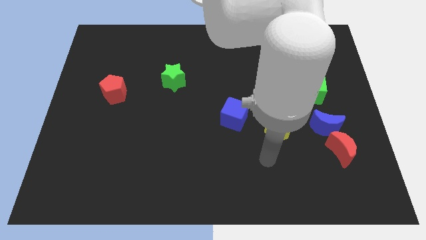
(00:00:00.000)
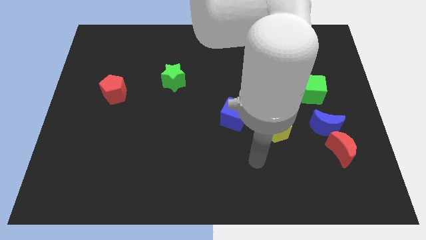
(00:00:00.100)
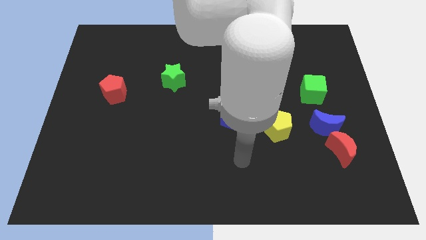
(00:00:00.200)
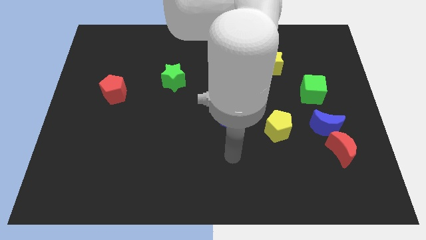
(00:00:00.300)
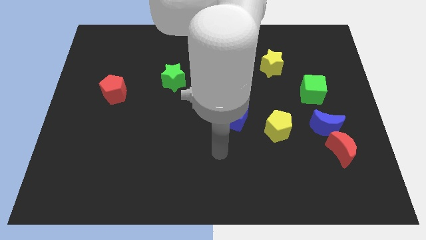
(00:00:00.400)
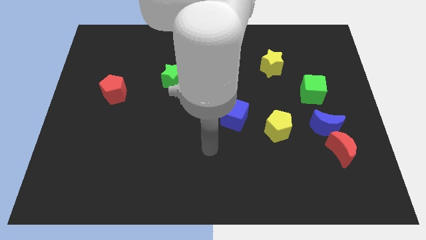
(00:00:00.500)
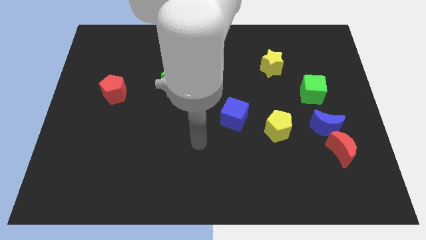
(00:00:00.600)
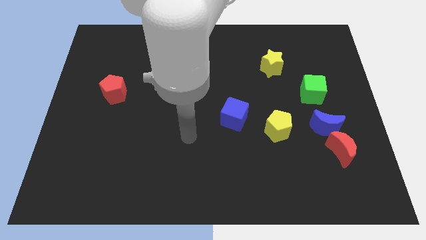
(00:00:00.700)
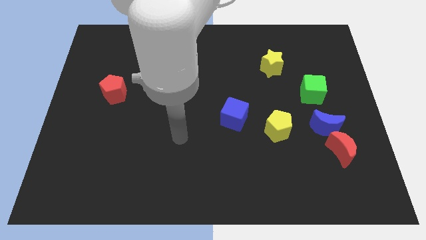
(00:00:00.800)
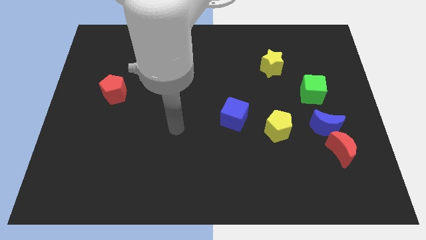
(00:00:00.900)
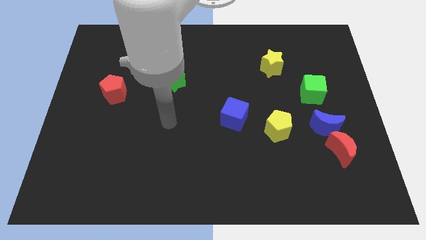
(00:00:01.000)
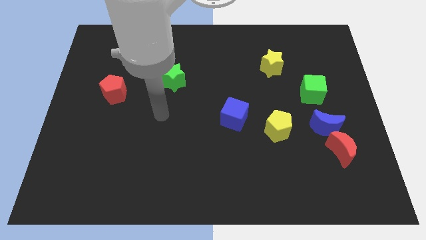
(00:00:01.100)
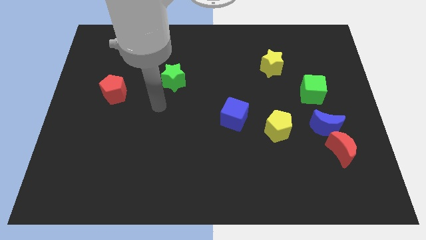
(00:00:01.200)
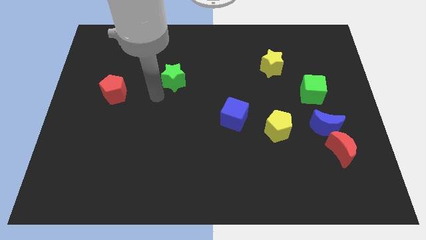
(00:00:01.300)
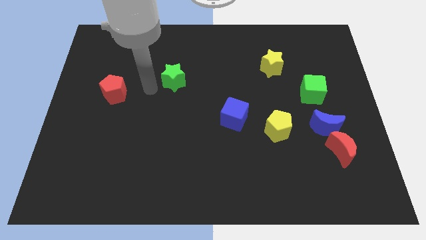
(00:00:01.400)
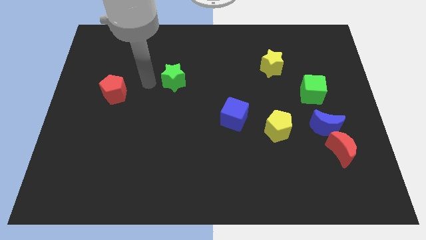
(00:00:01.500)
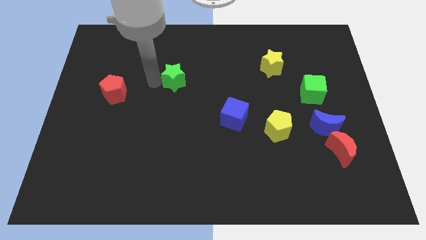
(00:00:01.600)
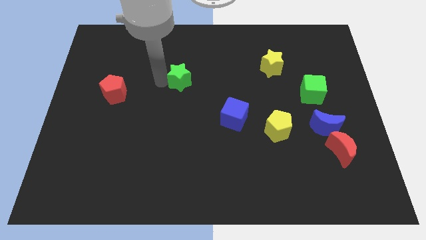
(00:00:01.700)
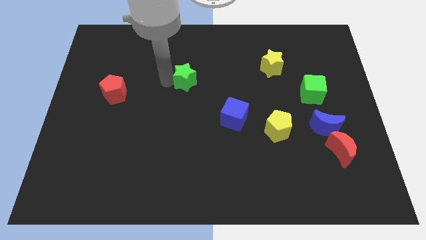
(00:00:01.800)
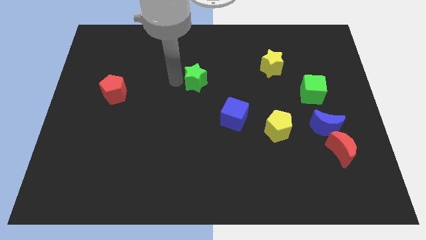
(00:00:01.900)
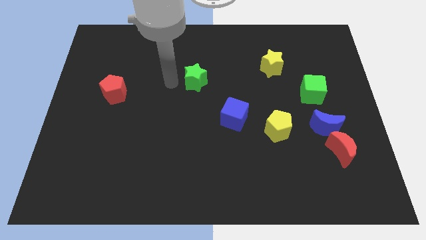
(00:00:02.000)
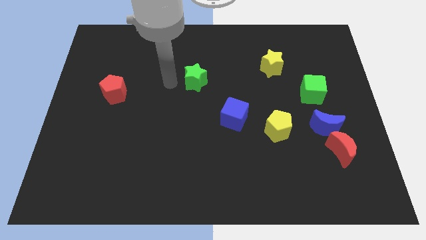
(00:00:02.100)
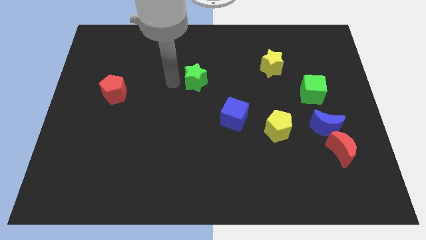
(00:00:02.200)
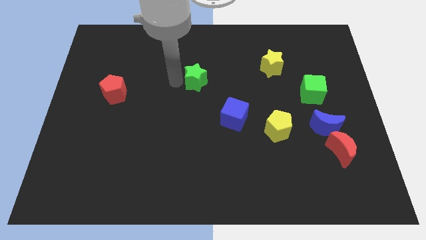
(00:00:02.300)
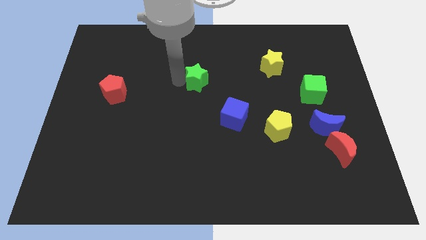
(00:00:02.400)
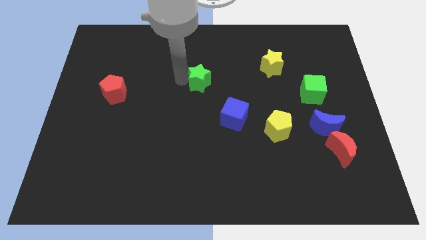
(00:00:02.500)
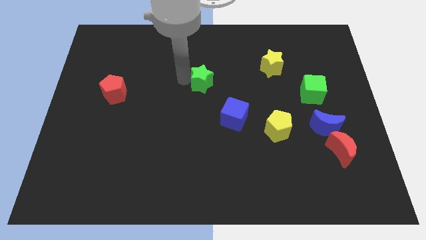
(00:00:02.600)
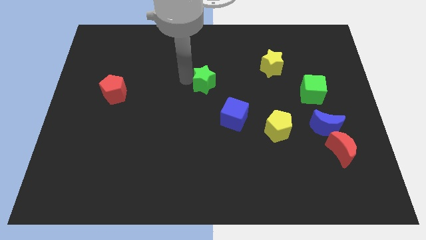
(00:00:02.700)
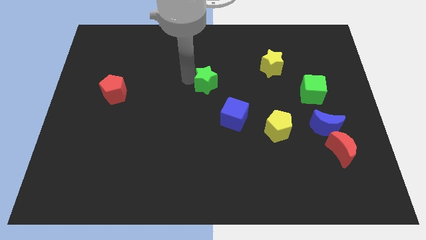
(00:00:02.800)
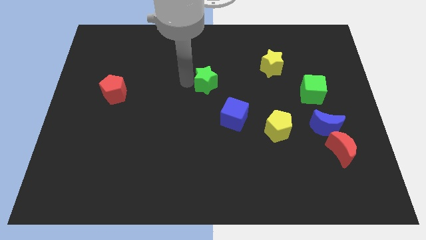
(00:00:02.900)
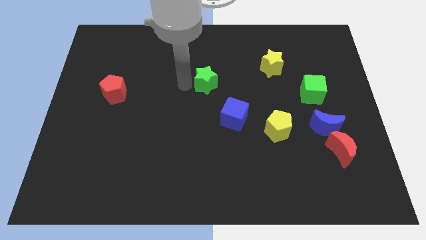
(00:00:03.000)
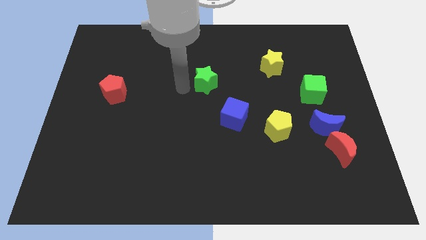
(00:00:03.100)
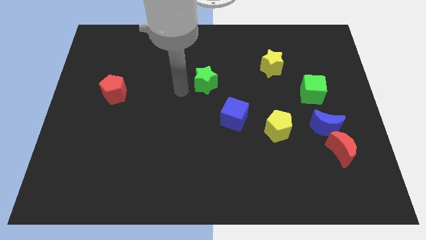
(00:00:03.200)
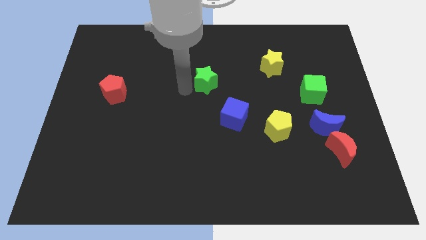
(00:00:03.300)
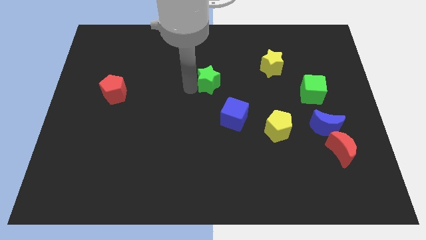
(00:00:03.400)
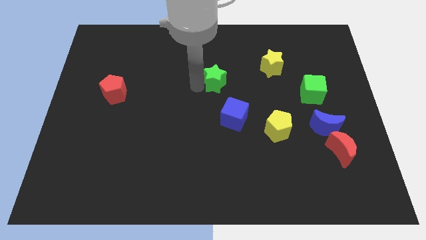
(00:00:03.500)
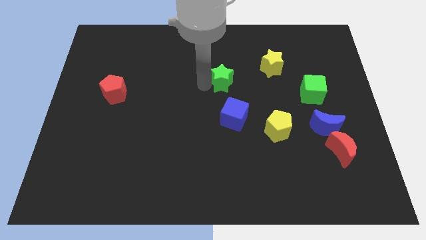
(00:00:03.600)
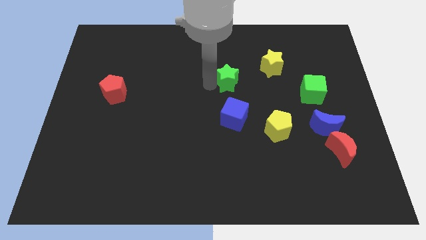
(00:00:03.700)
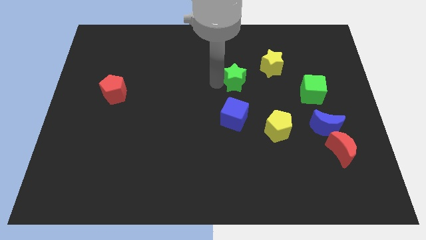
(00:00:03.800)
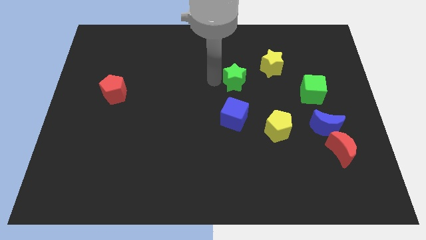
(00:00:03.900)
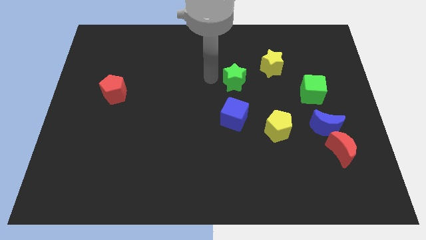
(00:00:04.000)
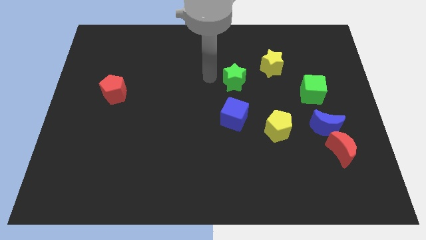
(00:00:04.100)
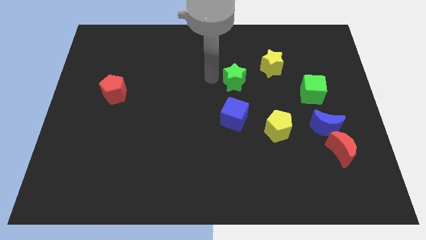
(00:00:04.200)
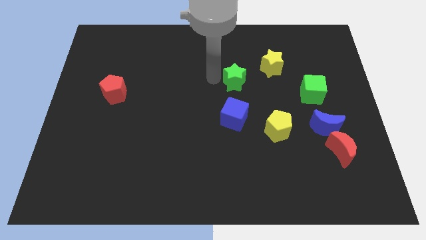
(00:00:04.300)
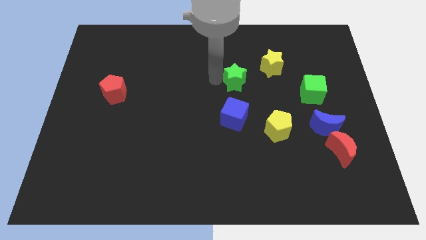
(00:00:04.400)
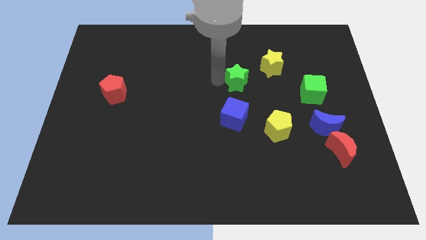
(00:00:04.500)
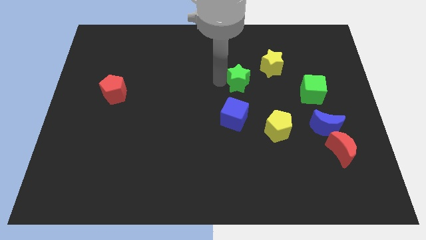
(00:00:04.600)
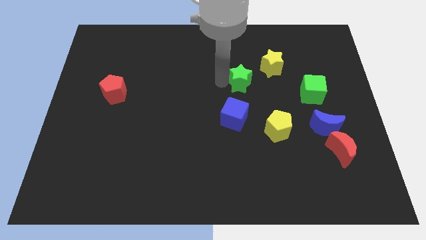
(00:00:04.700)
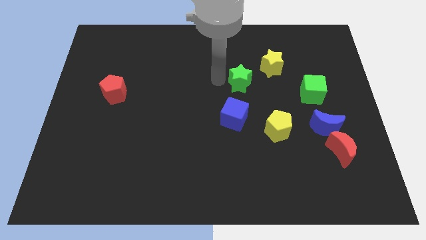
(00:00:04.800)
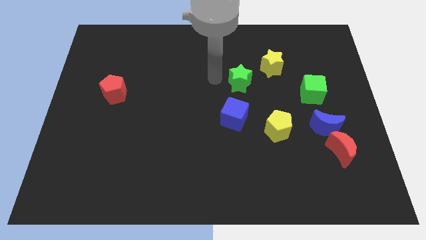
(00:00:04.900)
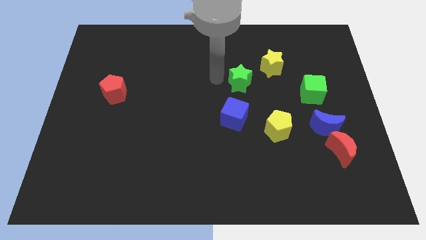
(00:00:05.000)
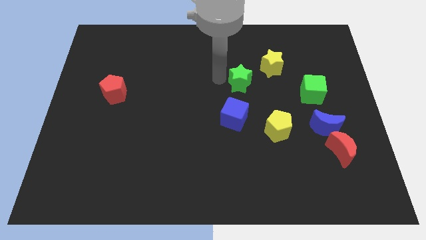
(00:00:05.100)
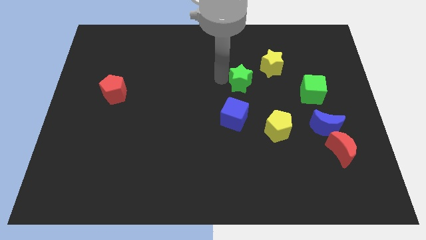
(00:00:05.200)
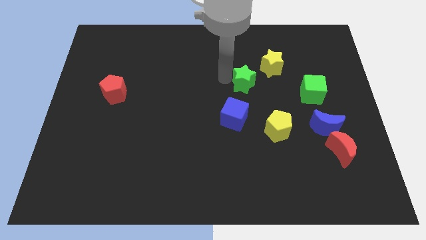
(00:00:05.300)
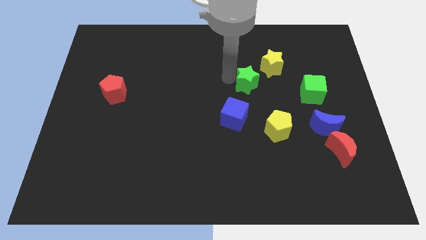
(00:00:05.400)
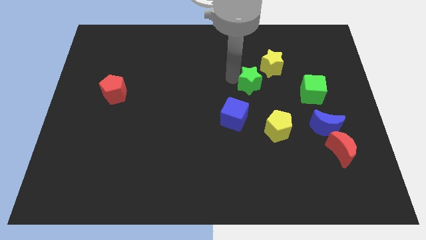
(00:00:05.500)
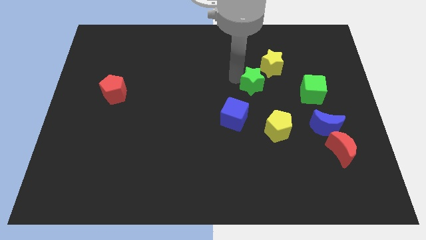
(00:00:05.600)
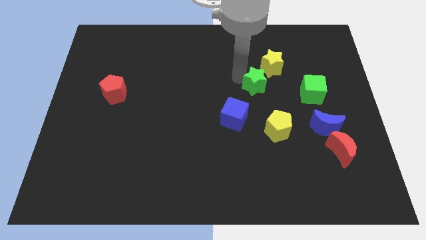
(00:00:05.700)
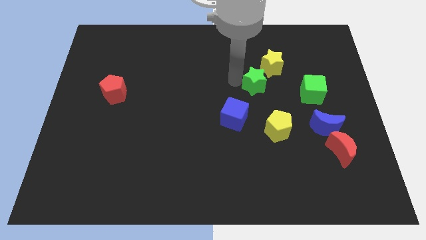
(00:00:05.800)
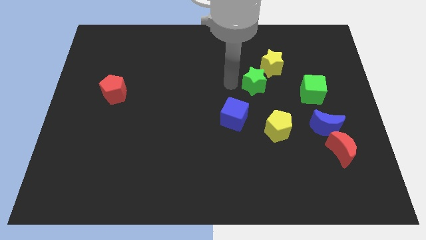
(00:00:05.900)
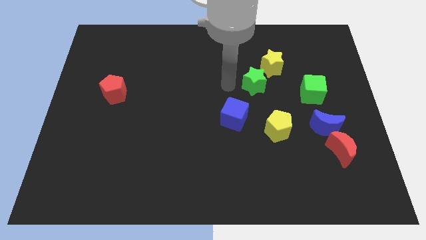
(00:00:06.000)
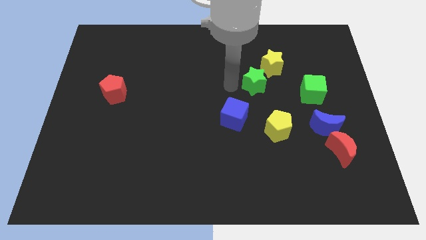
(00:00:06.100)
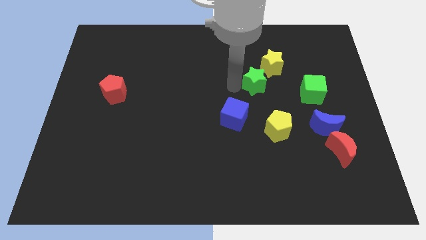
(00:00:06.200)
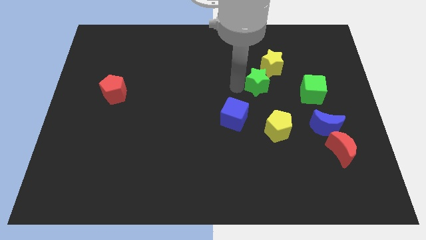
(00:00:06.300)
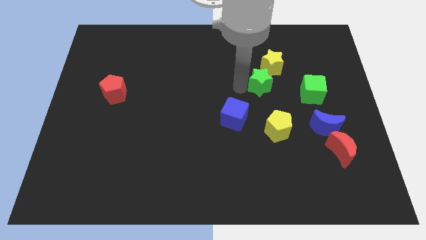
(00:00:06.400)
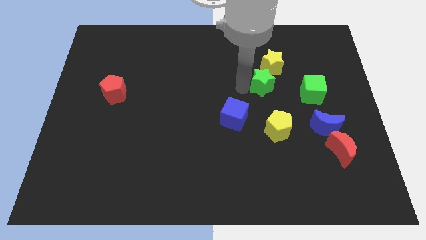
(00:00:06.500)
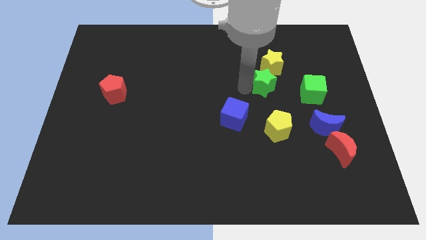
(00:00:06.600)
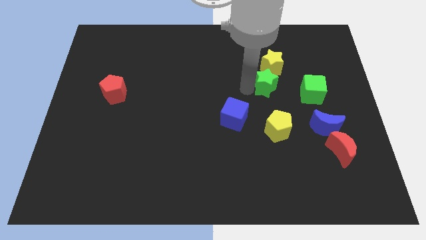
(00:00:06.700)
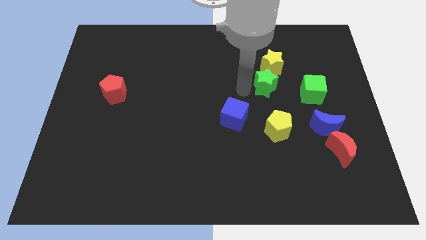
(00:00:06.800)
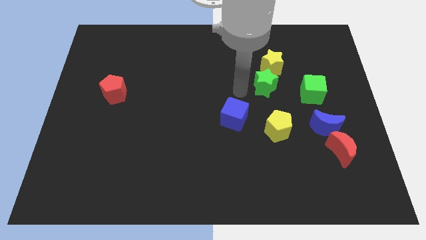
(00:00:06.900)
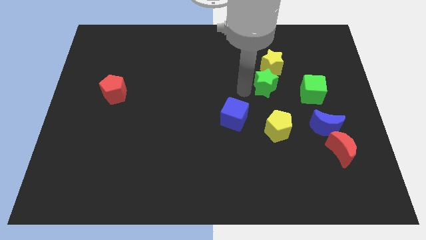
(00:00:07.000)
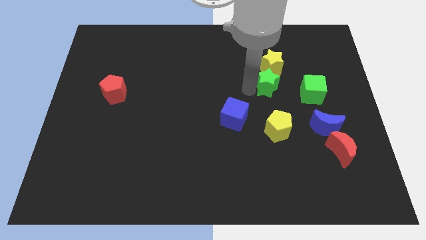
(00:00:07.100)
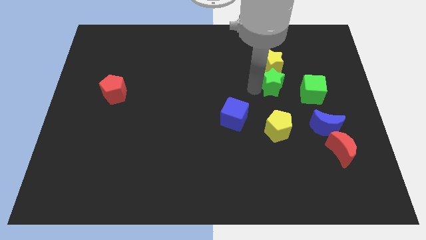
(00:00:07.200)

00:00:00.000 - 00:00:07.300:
put the green star to the bottom right of the yellow star
